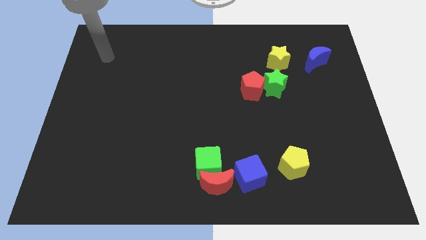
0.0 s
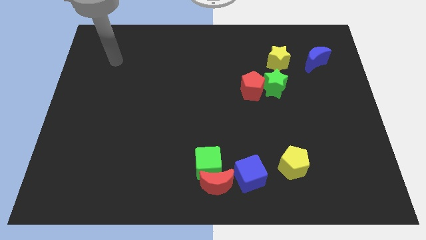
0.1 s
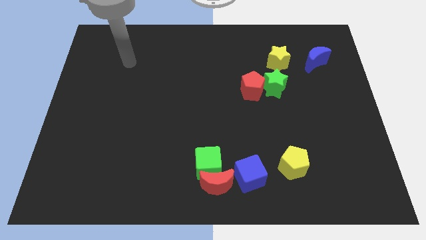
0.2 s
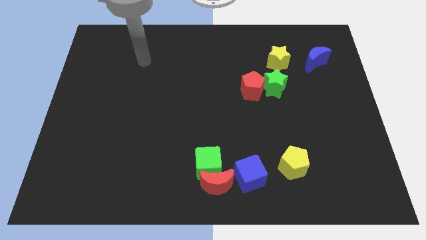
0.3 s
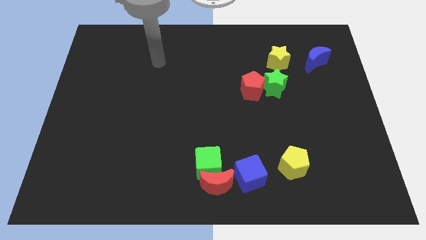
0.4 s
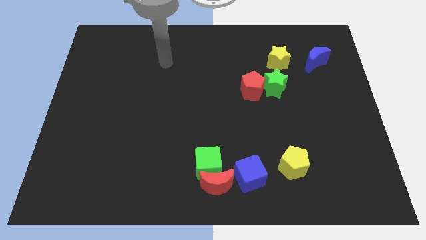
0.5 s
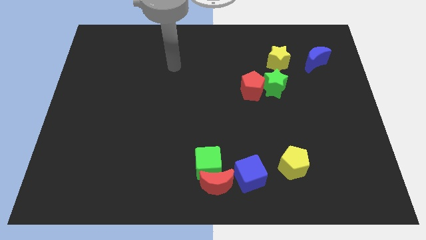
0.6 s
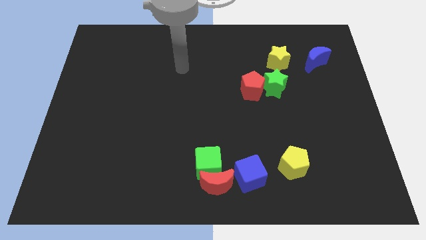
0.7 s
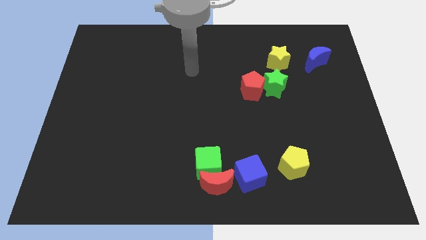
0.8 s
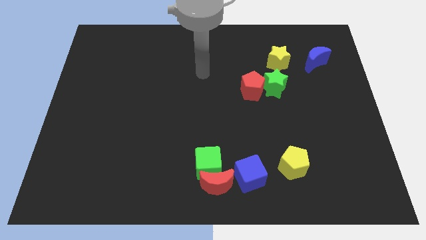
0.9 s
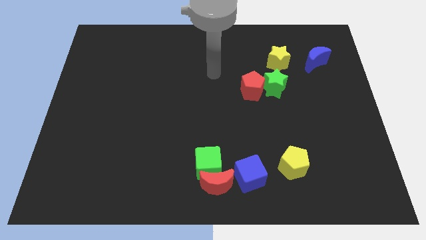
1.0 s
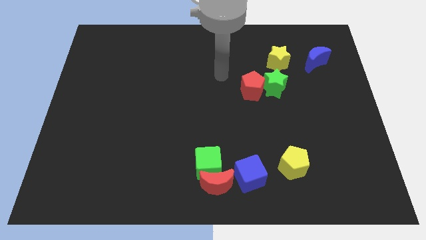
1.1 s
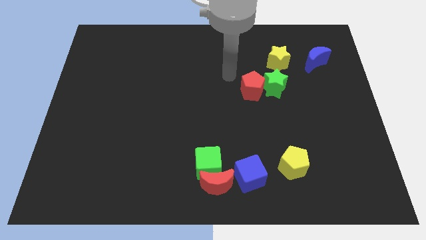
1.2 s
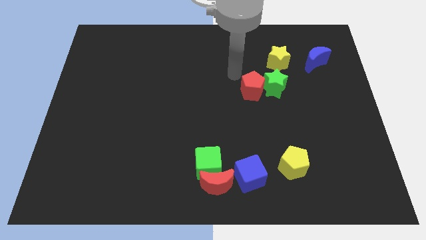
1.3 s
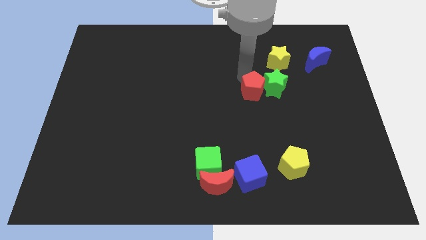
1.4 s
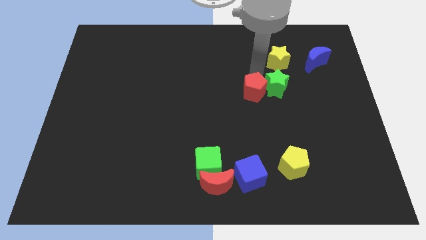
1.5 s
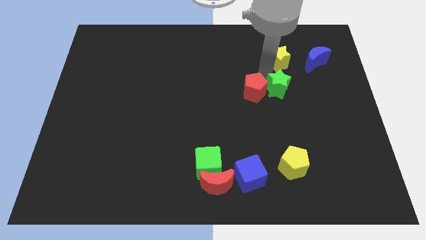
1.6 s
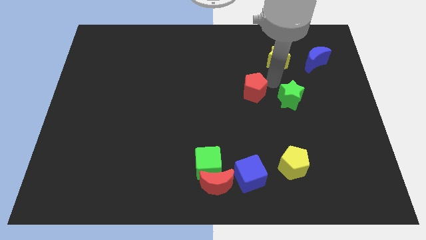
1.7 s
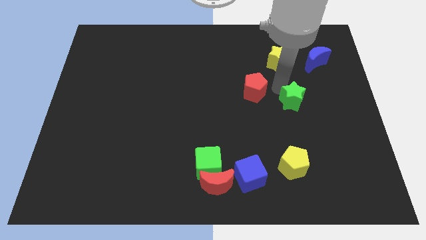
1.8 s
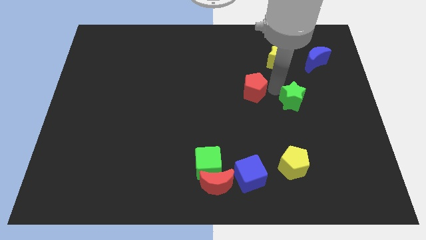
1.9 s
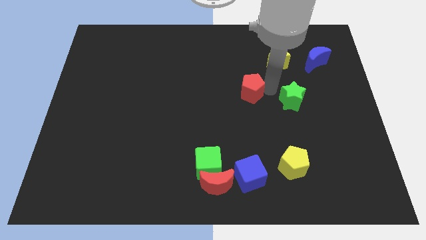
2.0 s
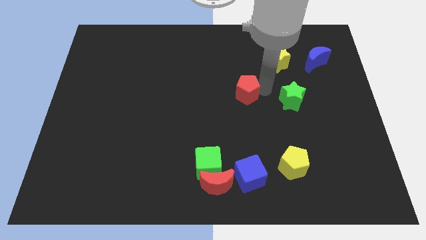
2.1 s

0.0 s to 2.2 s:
pull the red pentagon apart from the green star

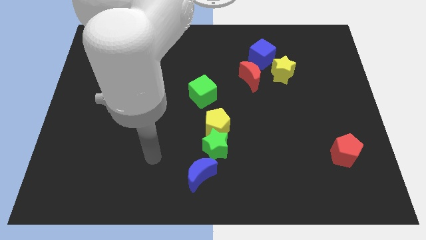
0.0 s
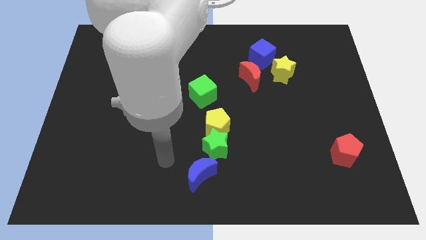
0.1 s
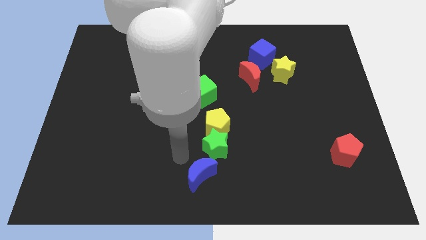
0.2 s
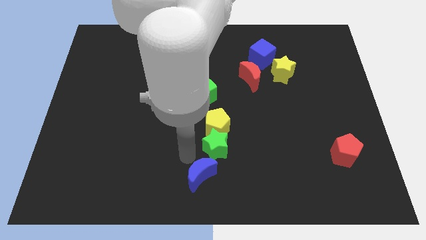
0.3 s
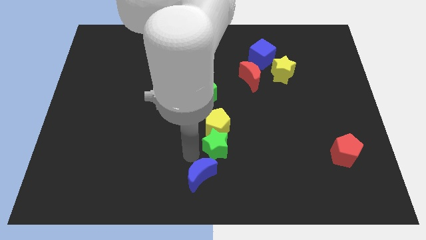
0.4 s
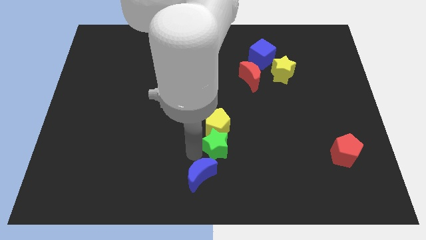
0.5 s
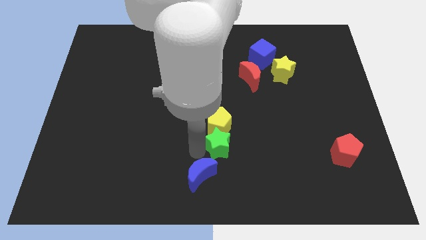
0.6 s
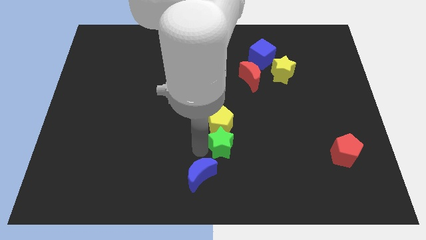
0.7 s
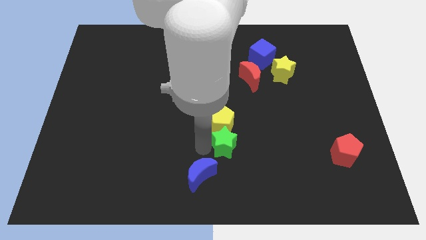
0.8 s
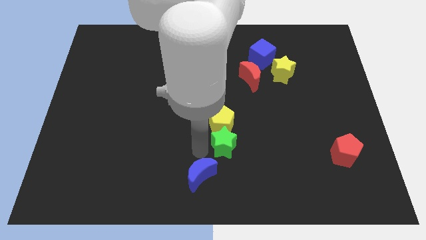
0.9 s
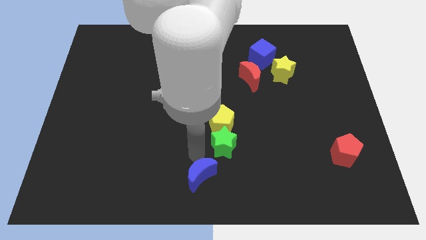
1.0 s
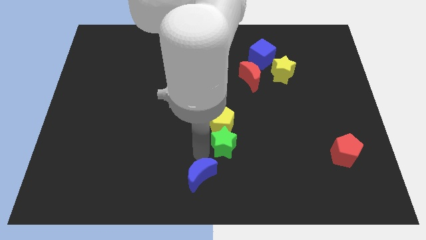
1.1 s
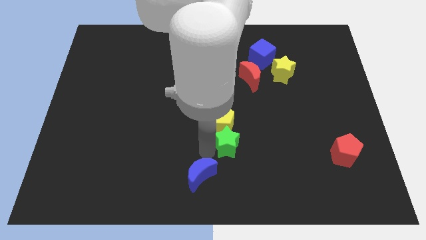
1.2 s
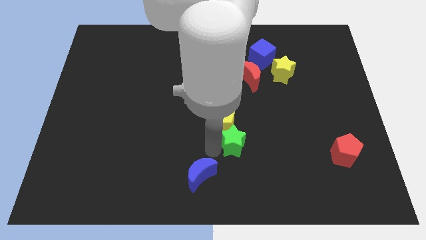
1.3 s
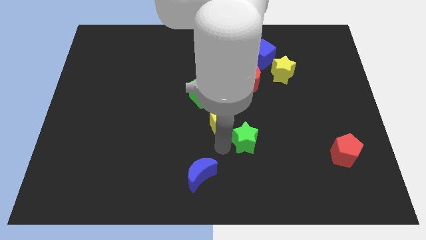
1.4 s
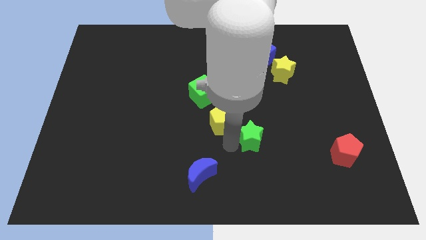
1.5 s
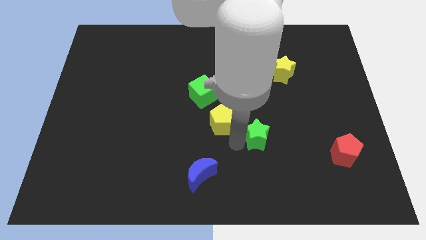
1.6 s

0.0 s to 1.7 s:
move the green star away from the yellow pentagon and blue moon

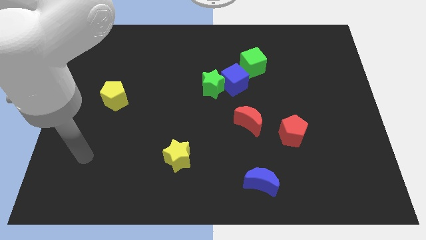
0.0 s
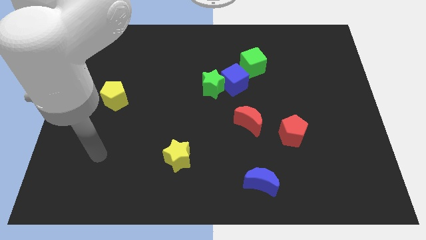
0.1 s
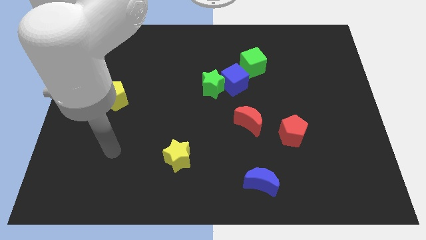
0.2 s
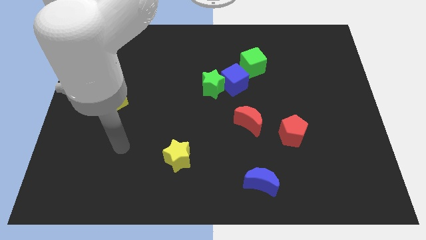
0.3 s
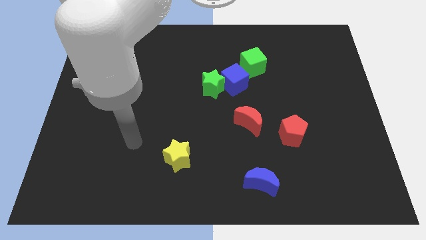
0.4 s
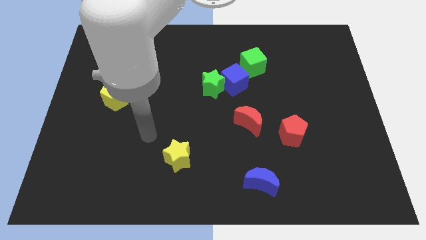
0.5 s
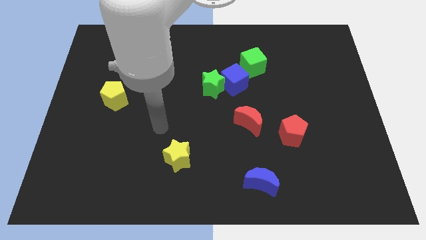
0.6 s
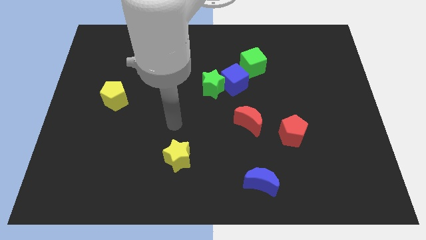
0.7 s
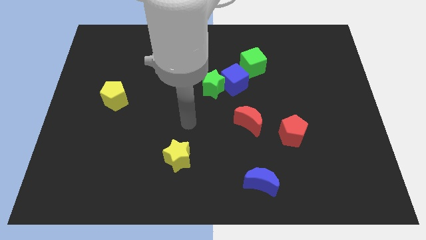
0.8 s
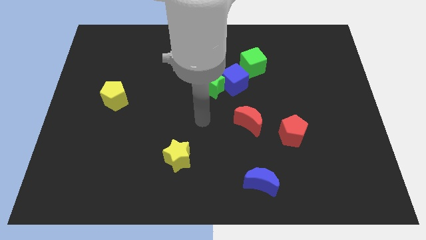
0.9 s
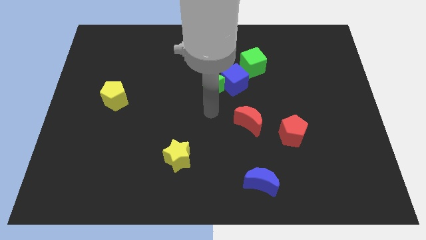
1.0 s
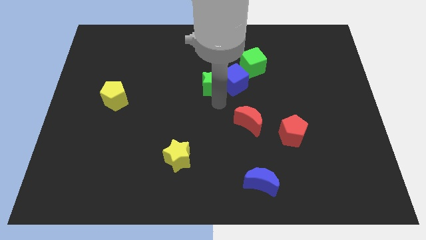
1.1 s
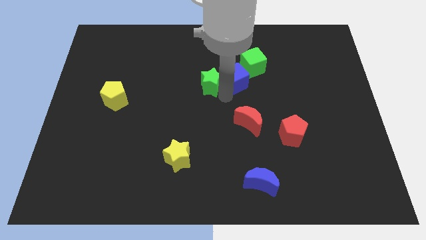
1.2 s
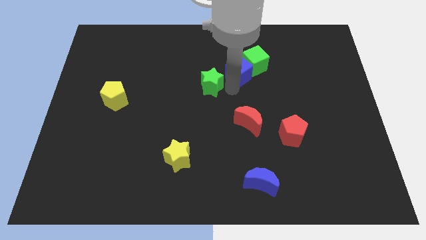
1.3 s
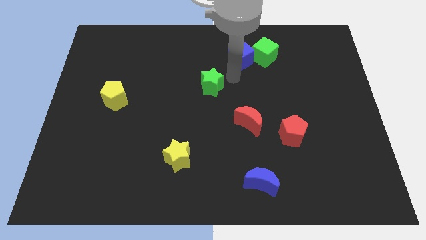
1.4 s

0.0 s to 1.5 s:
separate the green star from the blue cube

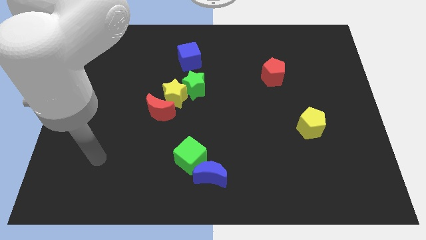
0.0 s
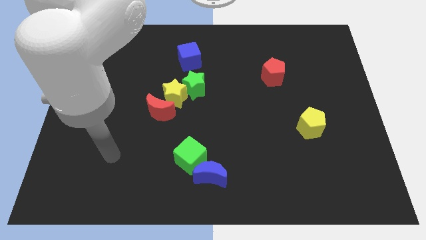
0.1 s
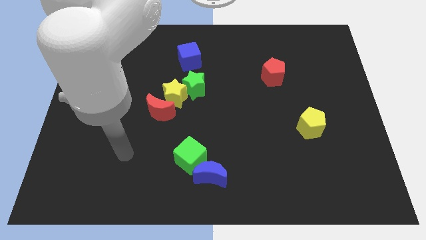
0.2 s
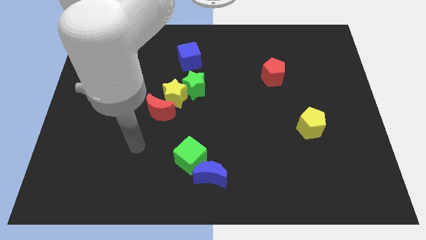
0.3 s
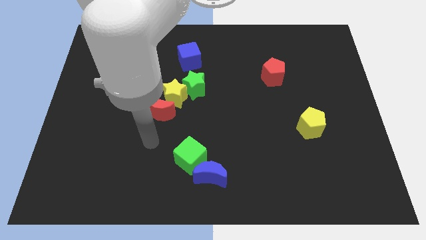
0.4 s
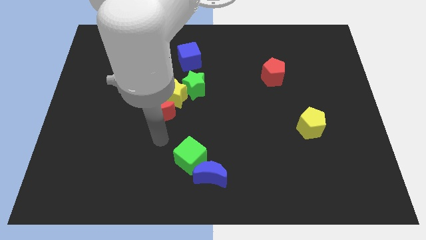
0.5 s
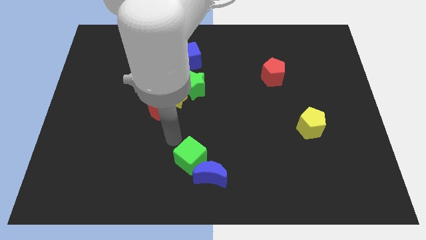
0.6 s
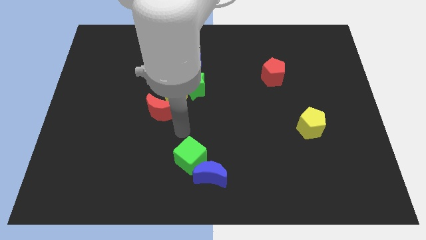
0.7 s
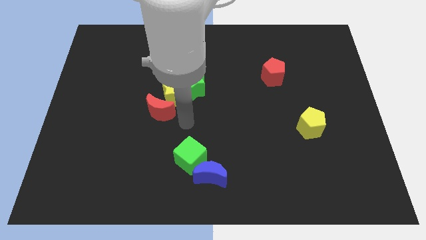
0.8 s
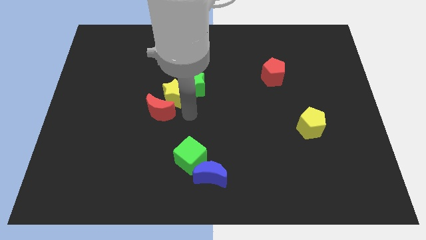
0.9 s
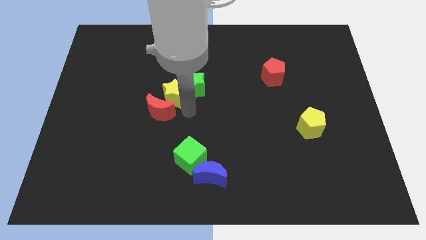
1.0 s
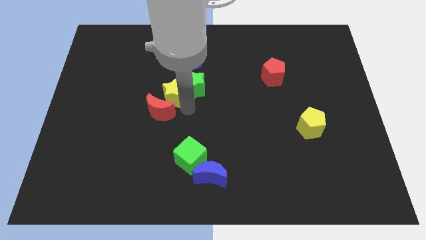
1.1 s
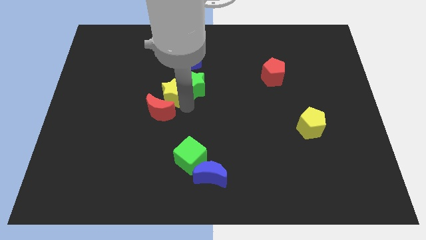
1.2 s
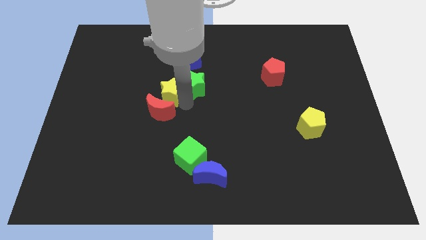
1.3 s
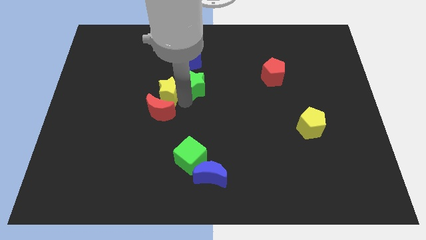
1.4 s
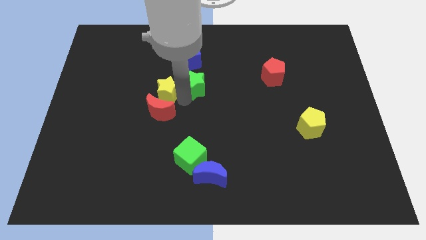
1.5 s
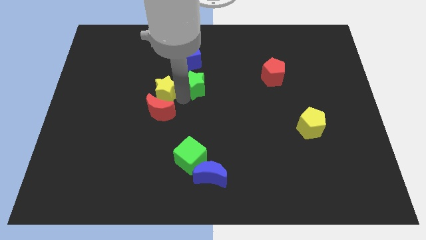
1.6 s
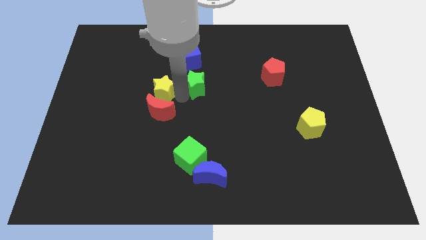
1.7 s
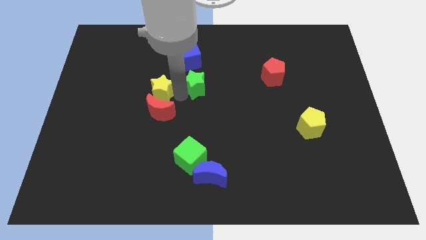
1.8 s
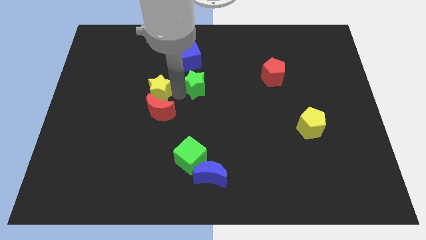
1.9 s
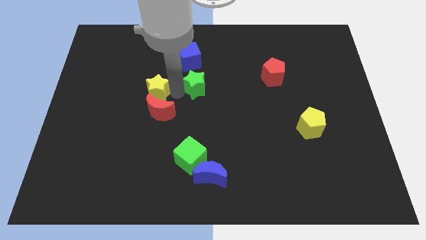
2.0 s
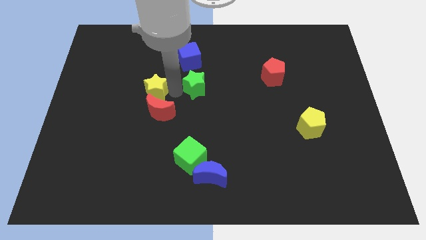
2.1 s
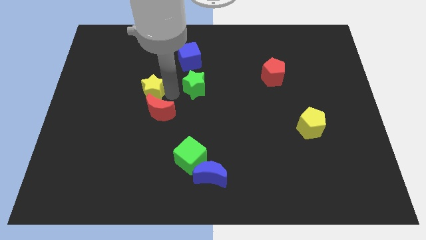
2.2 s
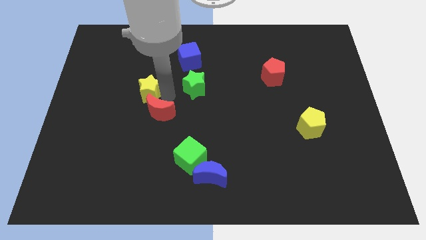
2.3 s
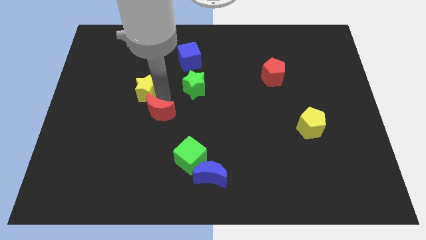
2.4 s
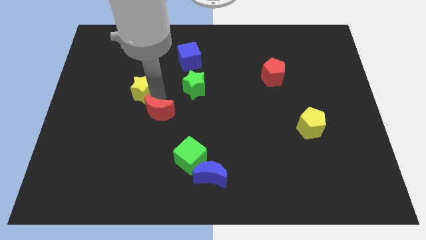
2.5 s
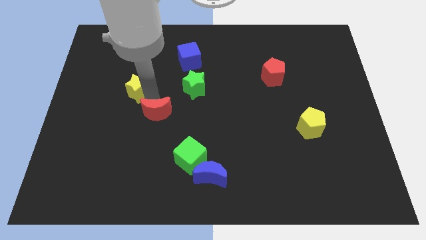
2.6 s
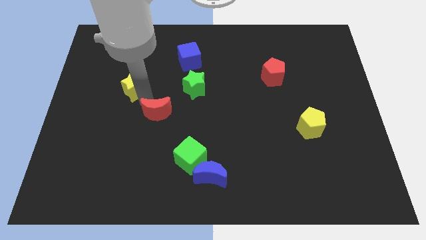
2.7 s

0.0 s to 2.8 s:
move the yellow star away from the green star and red moon

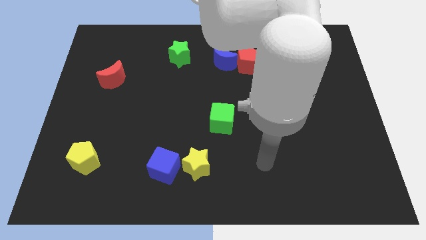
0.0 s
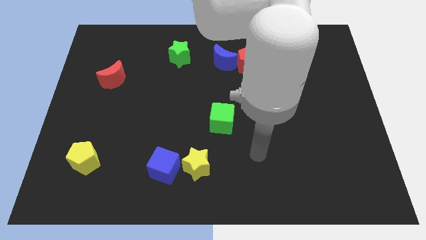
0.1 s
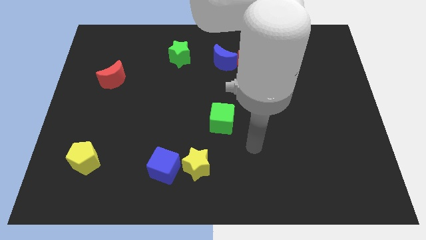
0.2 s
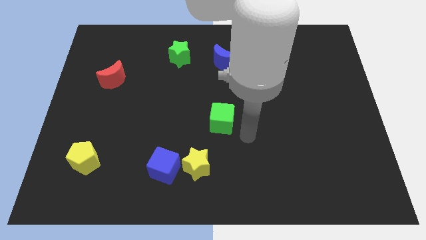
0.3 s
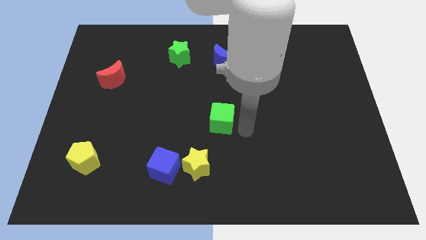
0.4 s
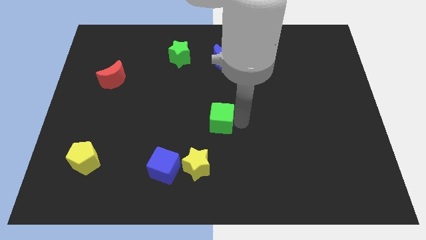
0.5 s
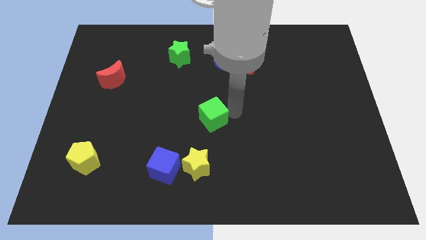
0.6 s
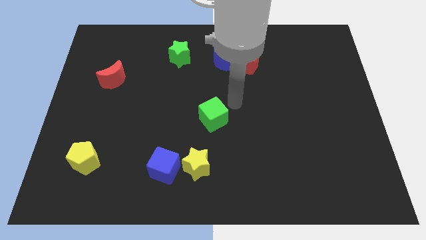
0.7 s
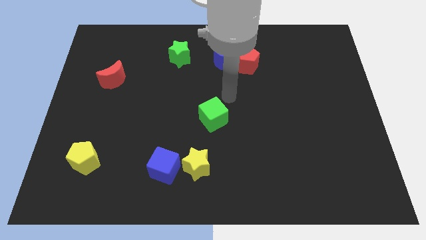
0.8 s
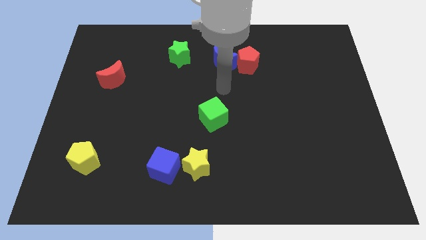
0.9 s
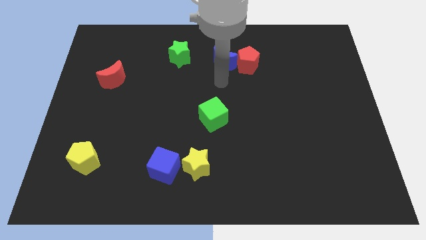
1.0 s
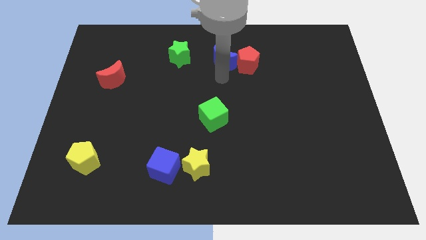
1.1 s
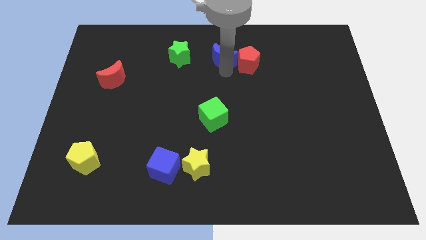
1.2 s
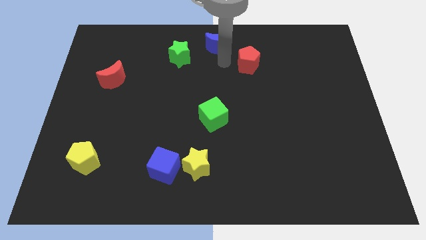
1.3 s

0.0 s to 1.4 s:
pull the red pentagon apart from the blue moon
